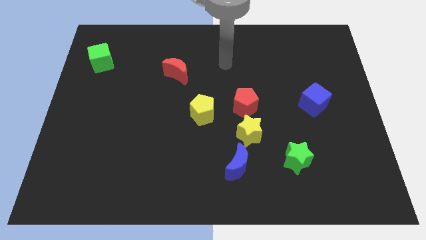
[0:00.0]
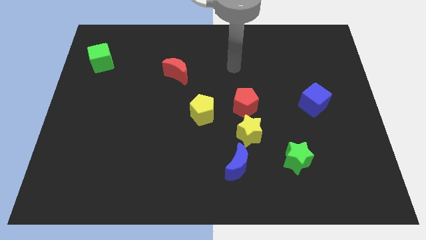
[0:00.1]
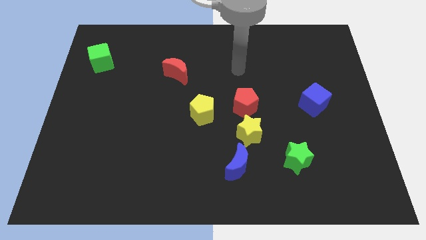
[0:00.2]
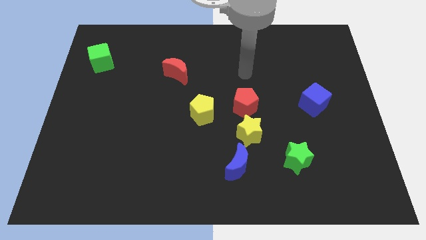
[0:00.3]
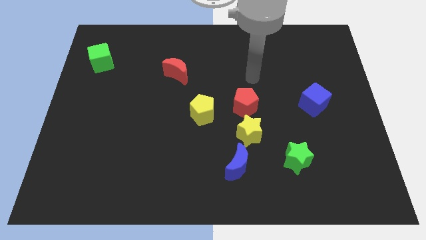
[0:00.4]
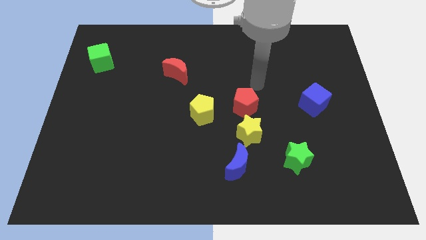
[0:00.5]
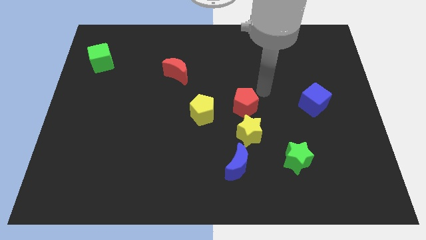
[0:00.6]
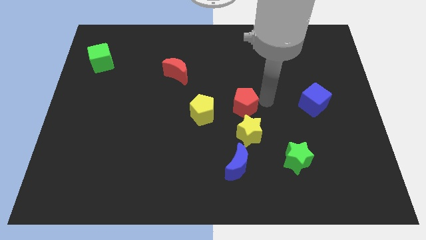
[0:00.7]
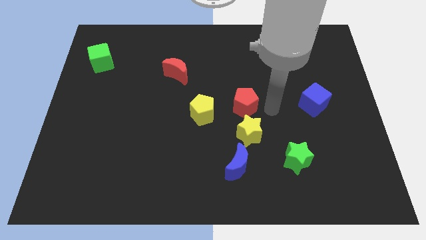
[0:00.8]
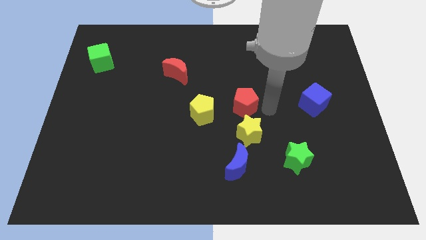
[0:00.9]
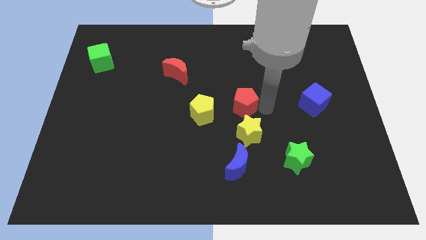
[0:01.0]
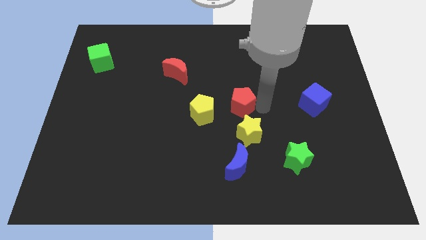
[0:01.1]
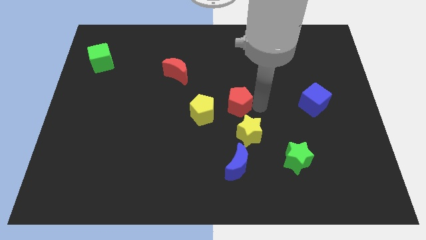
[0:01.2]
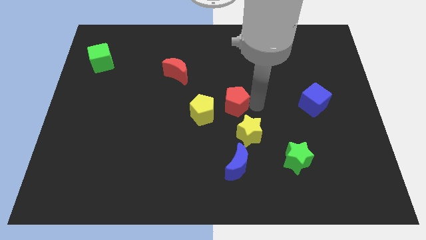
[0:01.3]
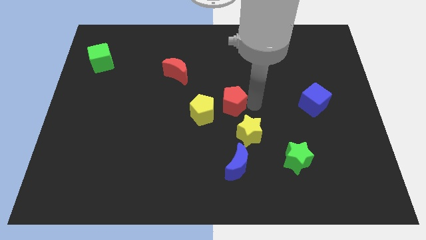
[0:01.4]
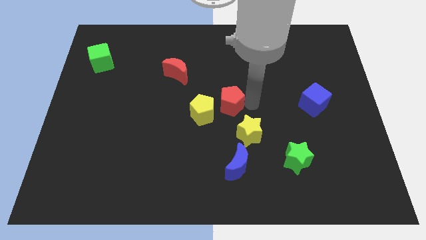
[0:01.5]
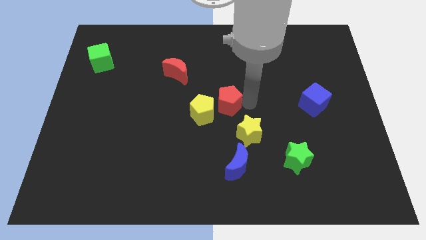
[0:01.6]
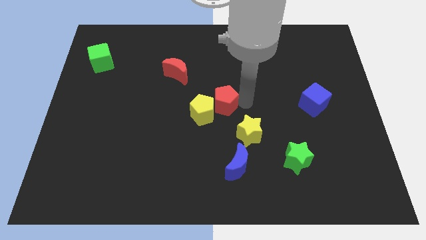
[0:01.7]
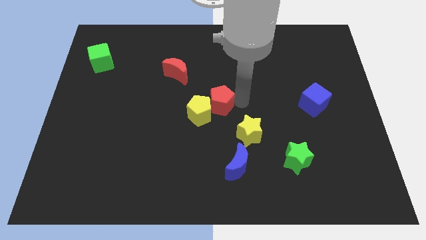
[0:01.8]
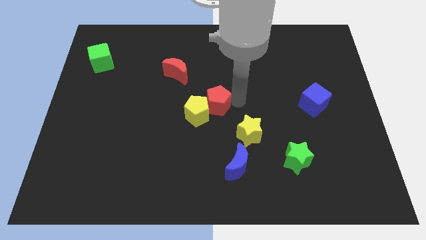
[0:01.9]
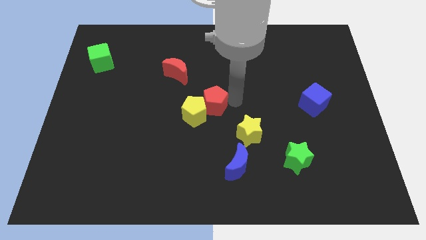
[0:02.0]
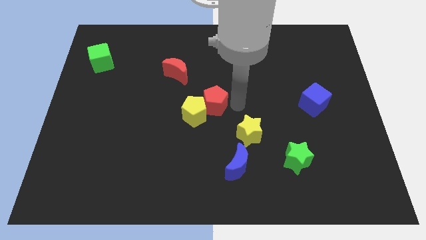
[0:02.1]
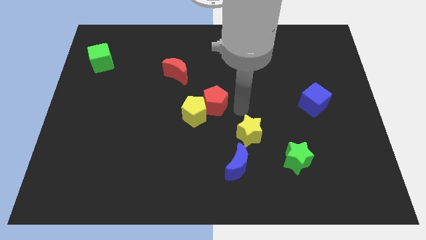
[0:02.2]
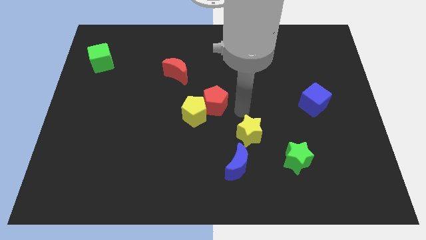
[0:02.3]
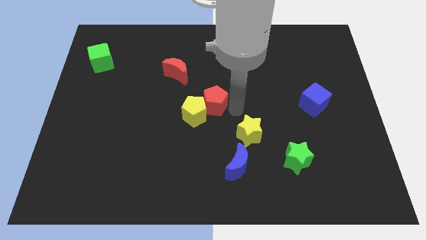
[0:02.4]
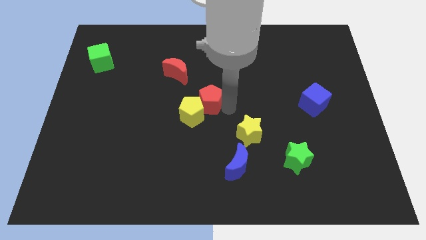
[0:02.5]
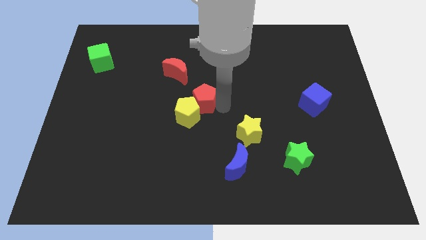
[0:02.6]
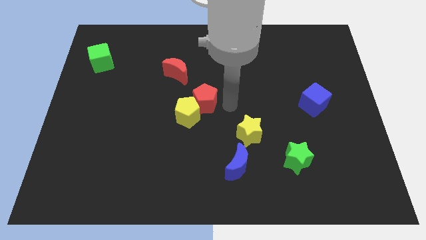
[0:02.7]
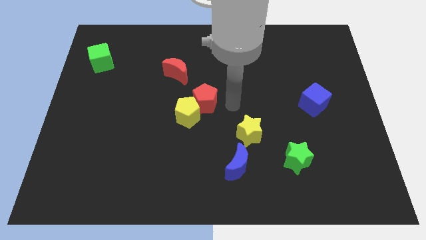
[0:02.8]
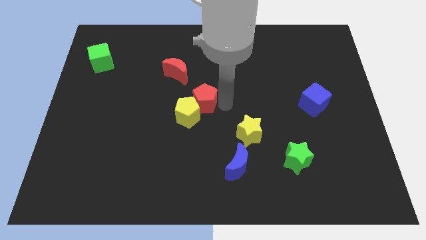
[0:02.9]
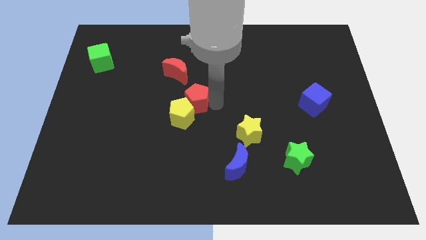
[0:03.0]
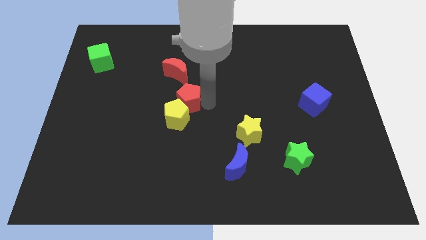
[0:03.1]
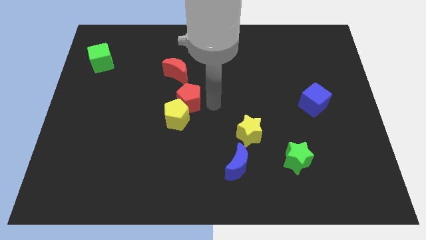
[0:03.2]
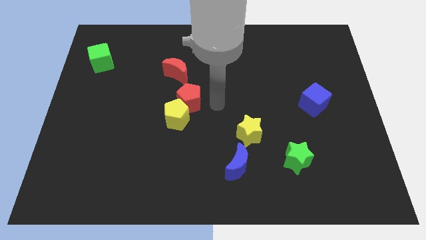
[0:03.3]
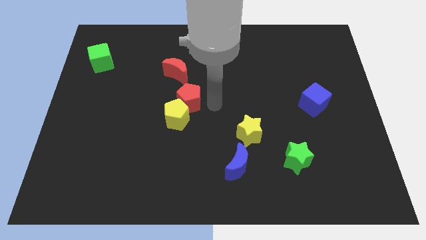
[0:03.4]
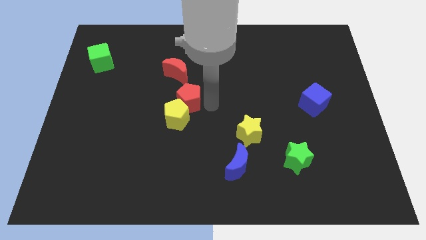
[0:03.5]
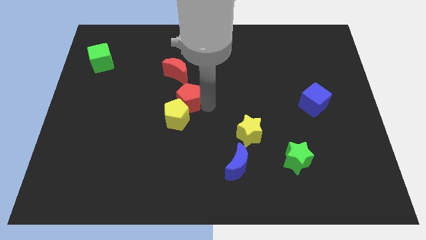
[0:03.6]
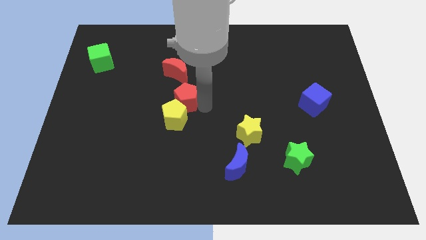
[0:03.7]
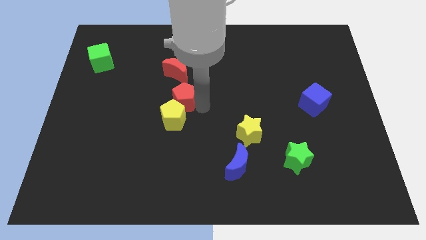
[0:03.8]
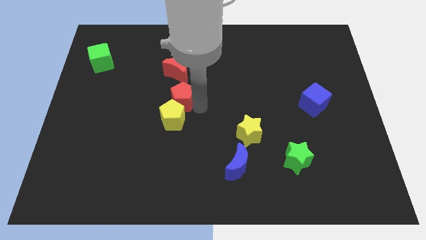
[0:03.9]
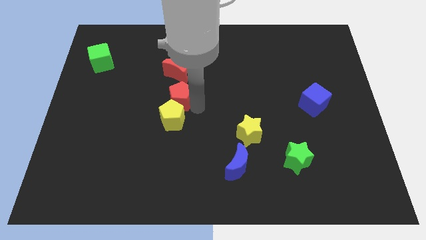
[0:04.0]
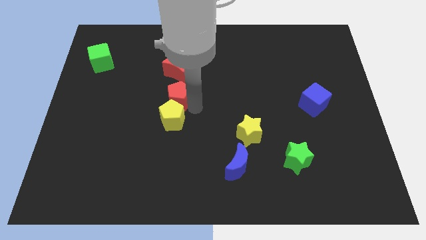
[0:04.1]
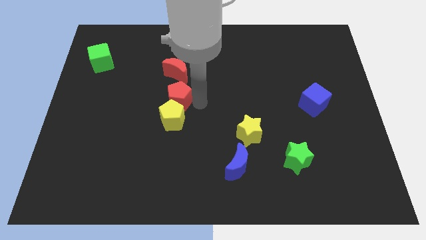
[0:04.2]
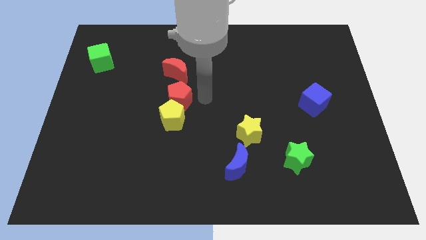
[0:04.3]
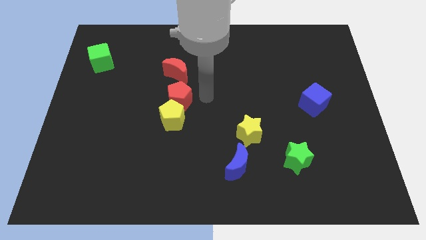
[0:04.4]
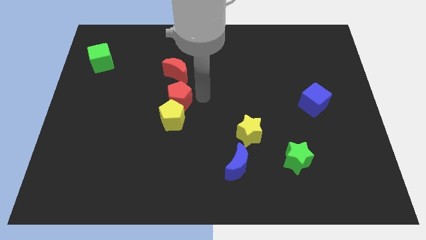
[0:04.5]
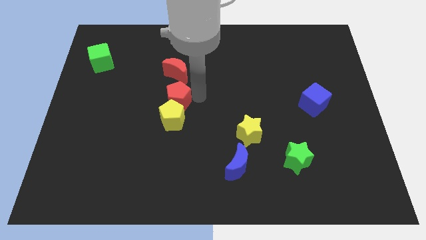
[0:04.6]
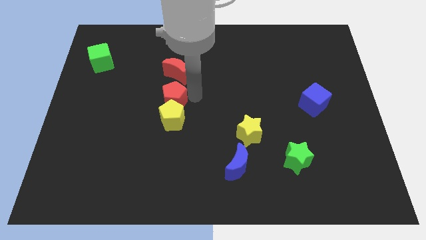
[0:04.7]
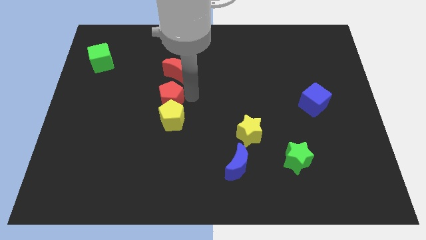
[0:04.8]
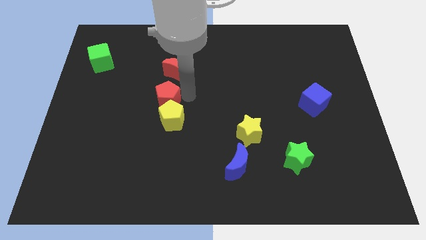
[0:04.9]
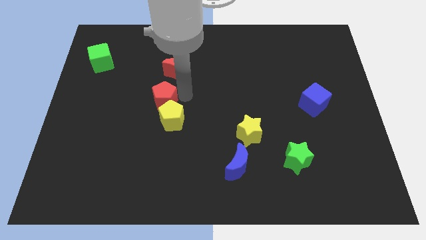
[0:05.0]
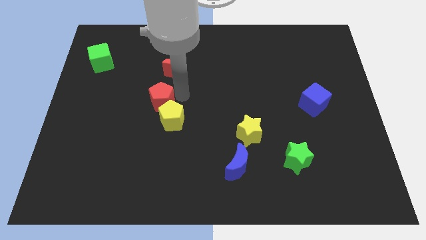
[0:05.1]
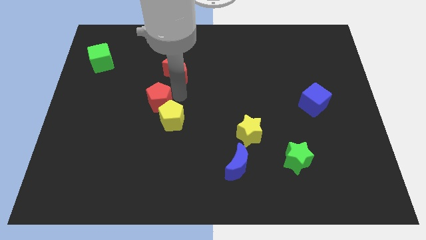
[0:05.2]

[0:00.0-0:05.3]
push the red pentagon left

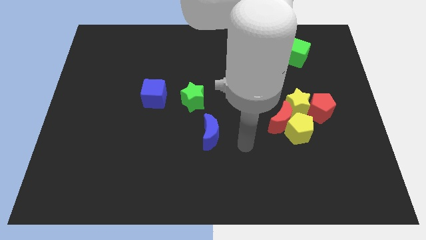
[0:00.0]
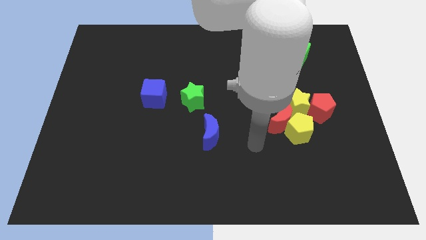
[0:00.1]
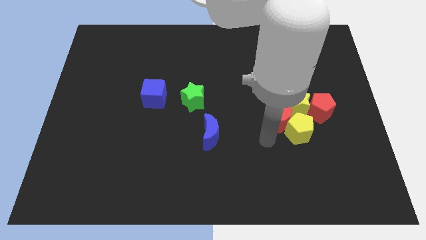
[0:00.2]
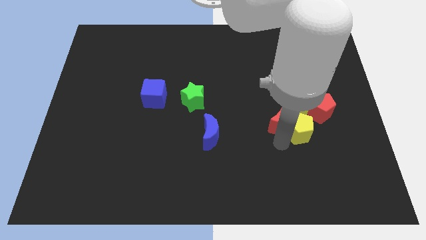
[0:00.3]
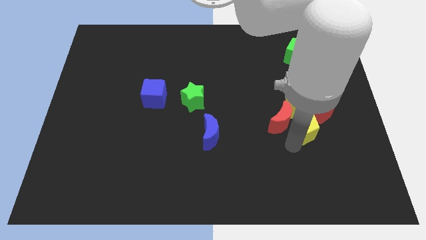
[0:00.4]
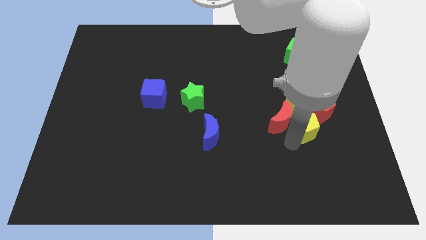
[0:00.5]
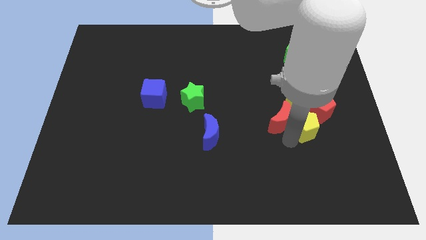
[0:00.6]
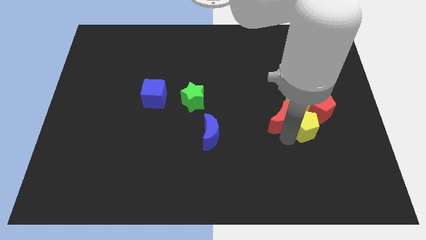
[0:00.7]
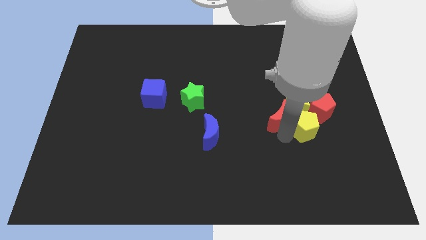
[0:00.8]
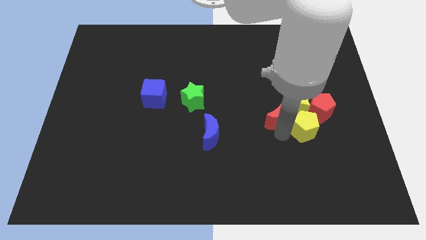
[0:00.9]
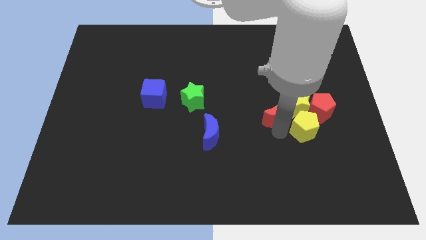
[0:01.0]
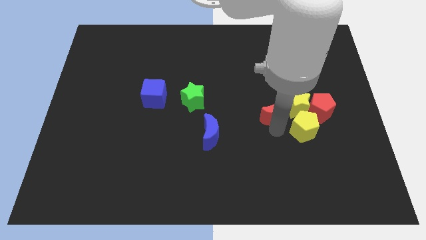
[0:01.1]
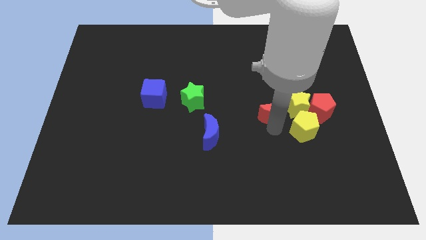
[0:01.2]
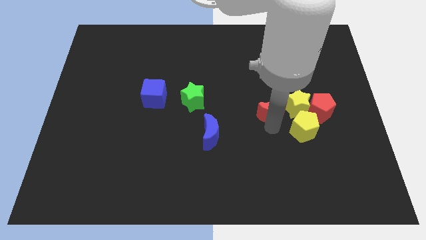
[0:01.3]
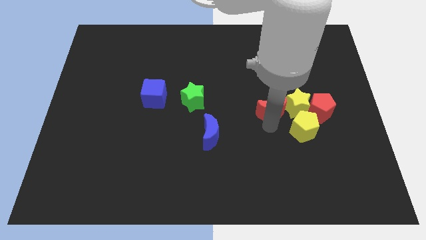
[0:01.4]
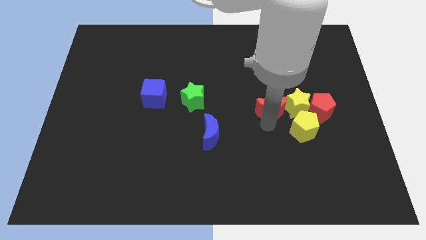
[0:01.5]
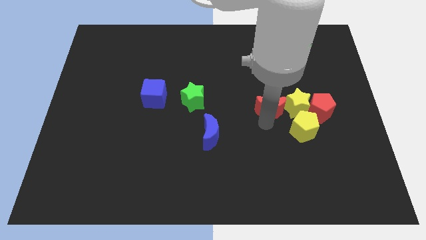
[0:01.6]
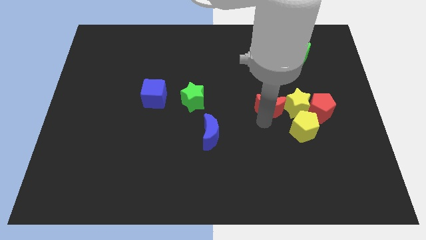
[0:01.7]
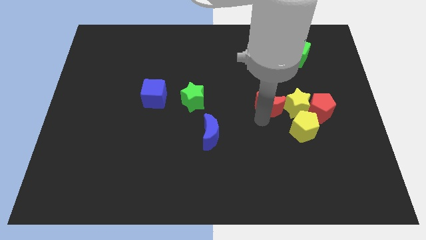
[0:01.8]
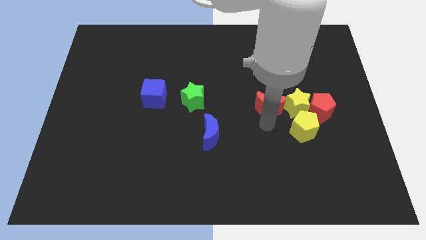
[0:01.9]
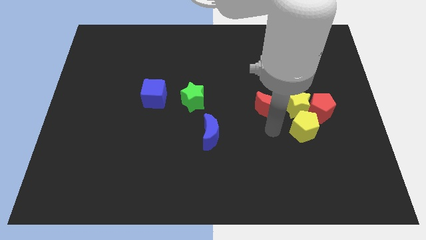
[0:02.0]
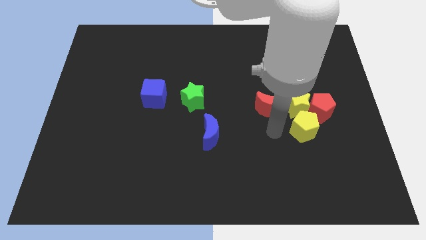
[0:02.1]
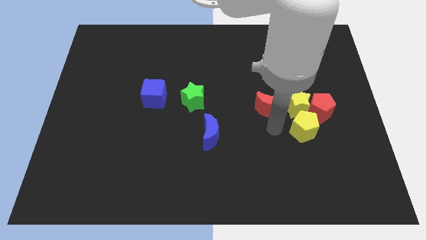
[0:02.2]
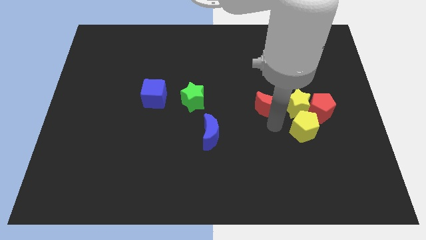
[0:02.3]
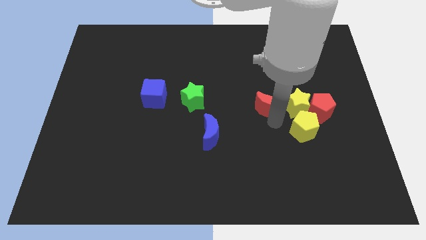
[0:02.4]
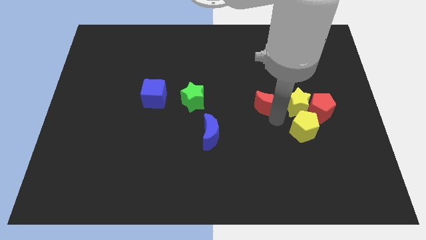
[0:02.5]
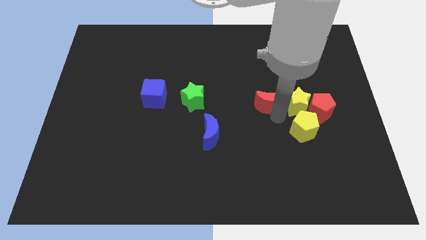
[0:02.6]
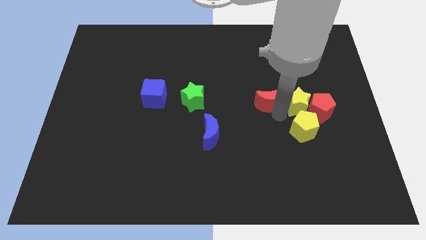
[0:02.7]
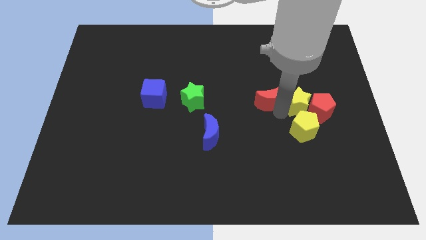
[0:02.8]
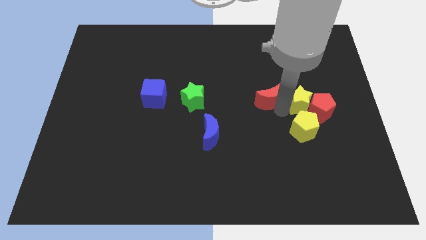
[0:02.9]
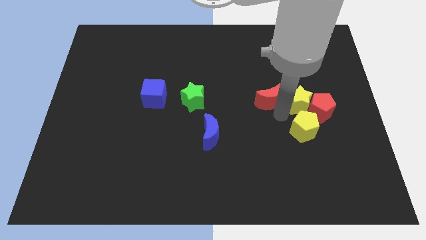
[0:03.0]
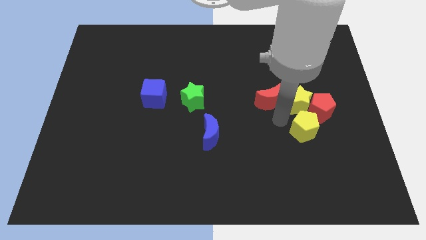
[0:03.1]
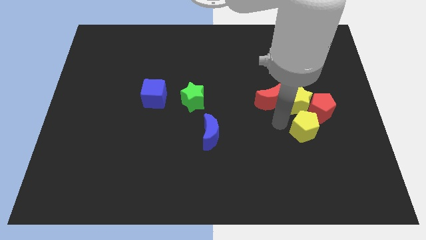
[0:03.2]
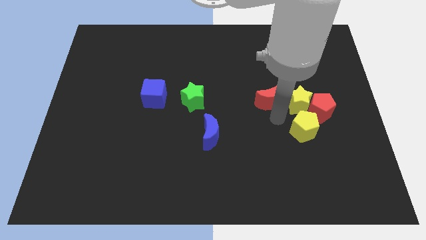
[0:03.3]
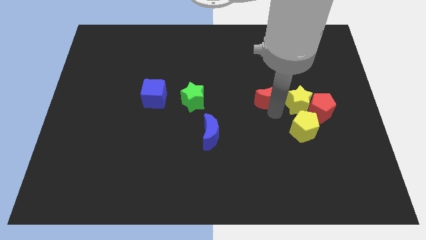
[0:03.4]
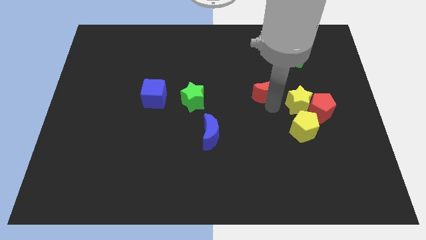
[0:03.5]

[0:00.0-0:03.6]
push the red moon up a bit
